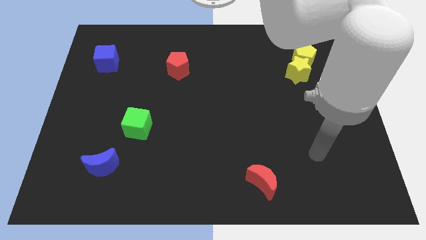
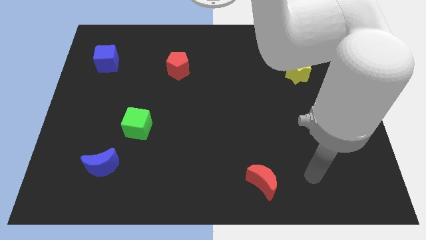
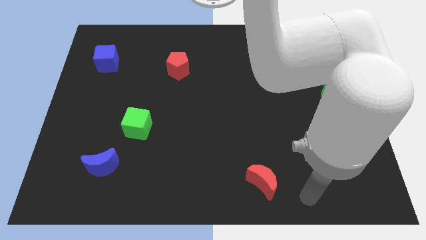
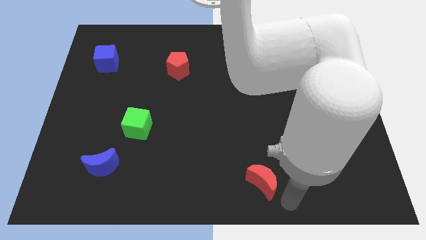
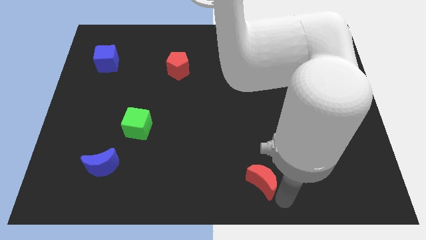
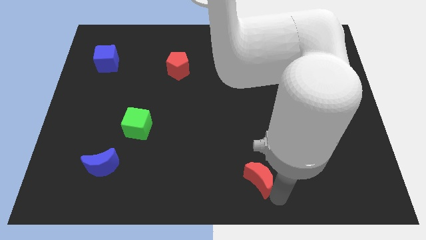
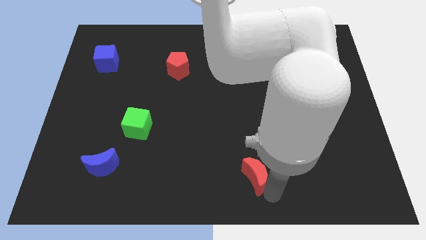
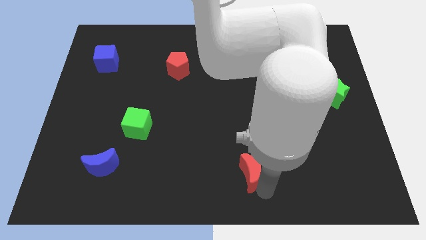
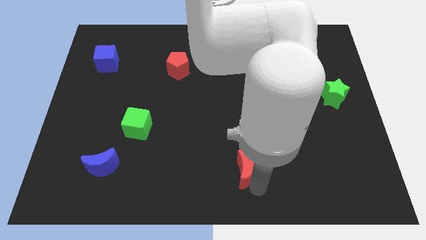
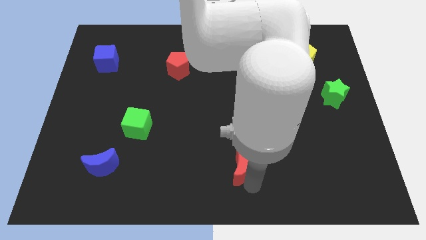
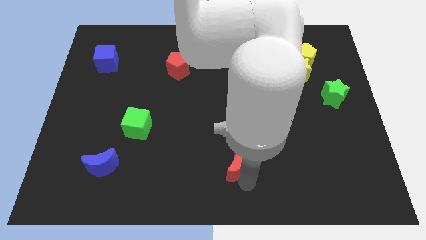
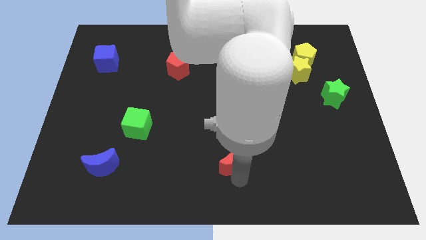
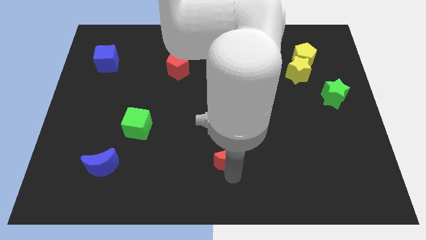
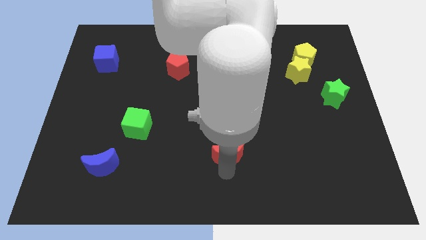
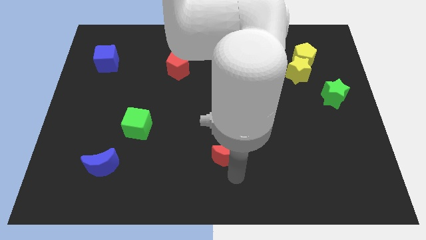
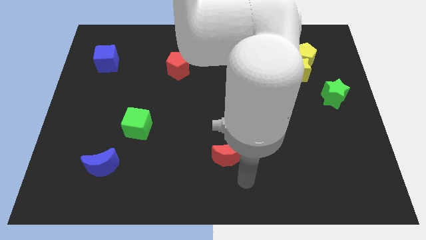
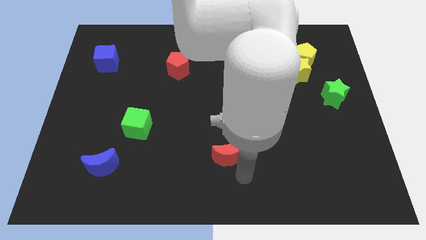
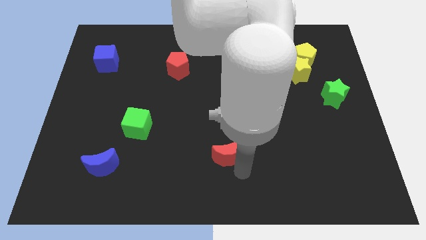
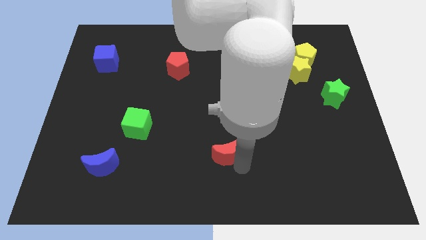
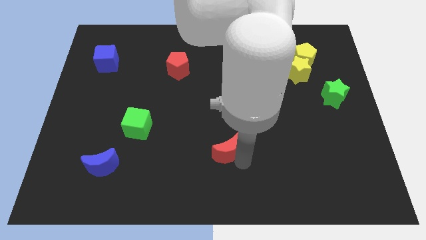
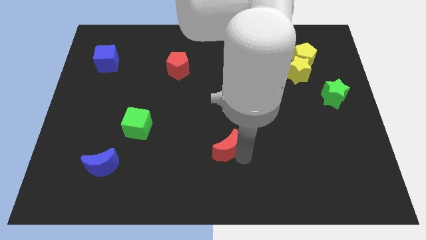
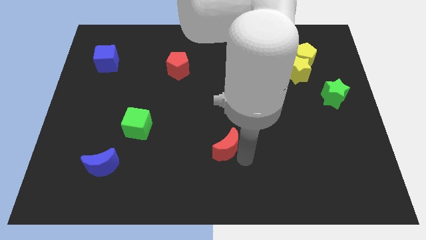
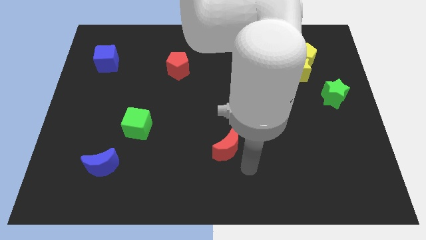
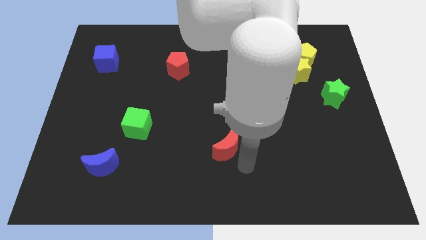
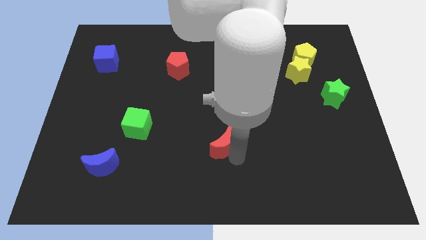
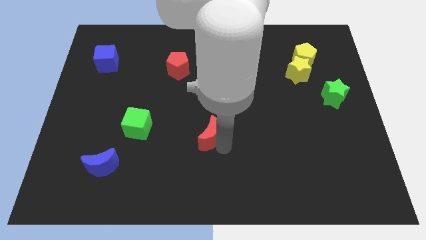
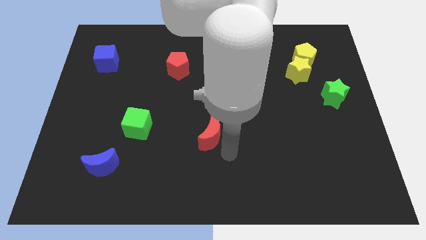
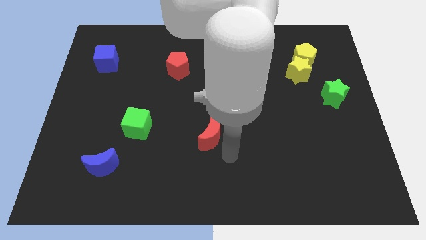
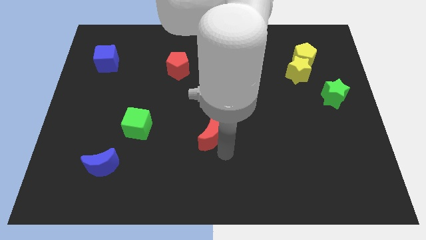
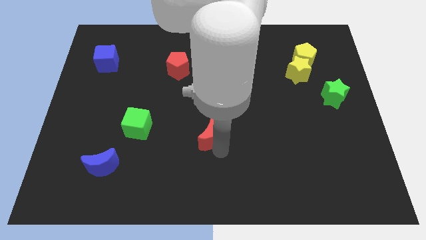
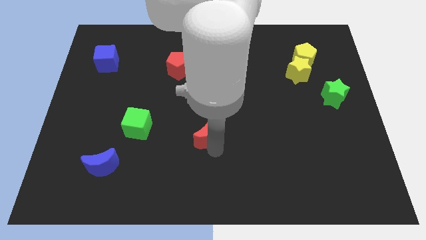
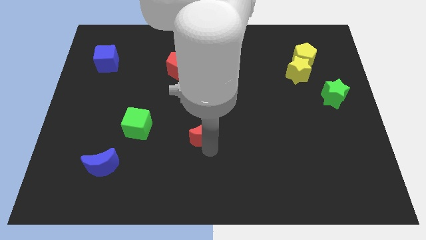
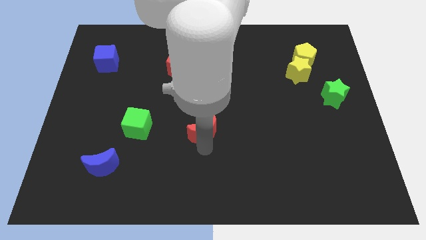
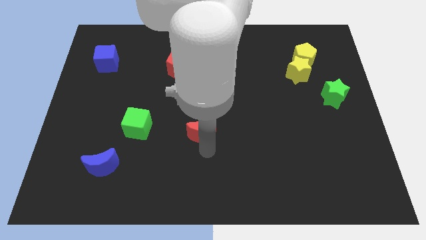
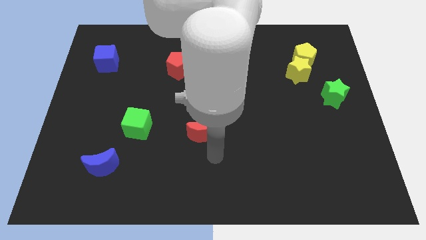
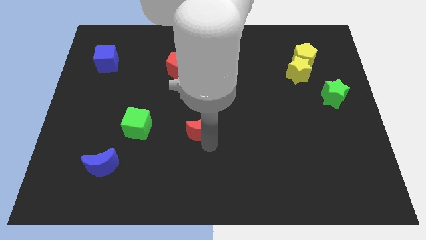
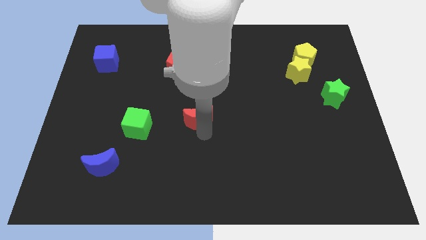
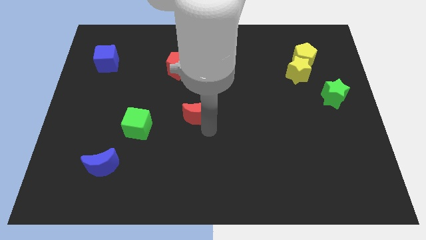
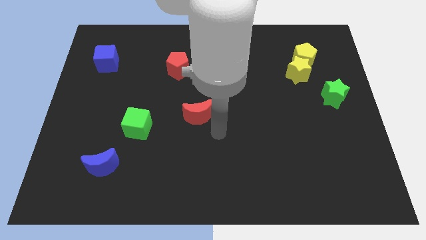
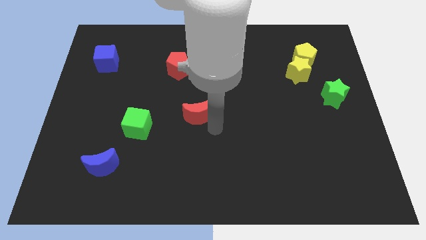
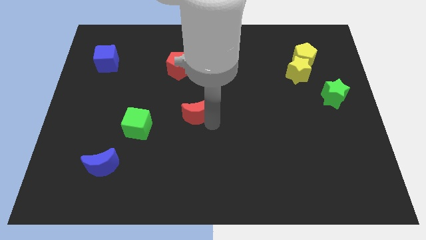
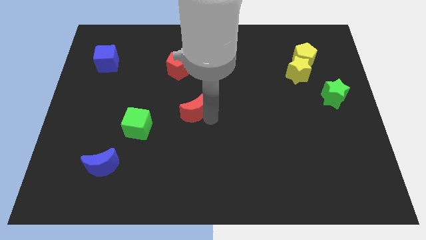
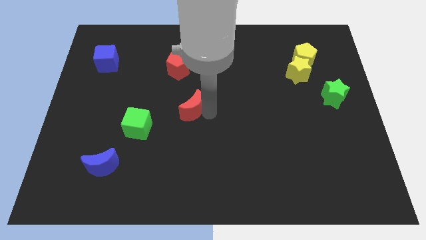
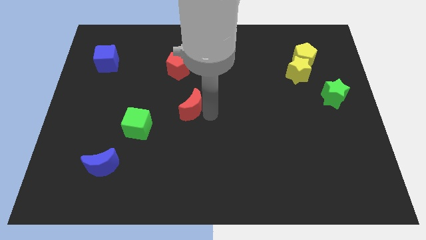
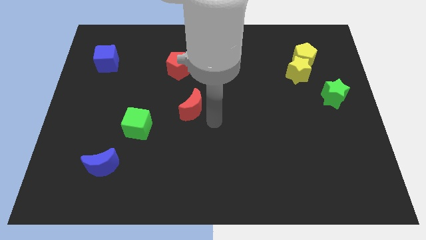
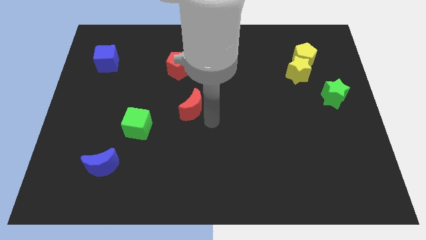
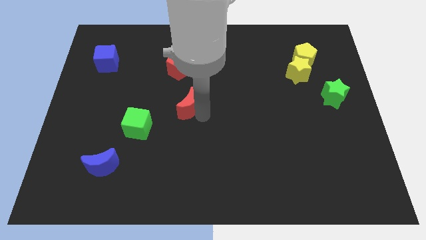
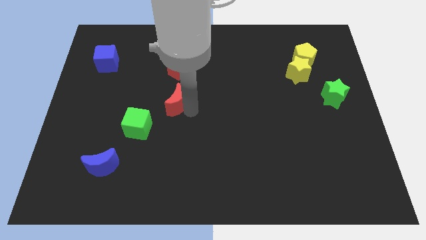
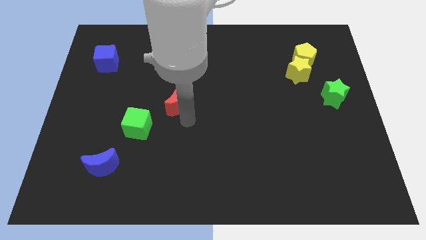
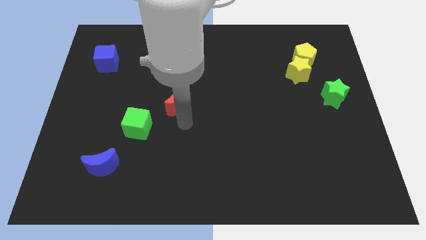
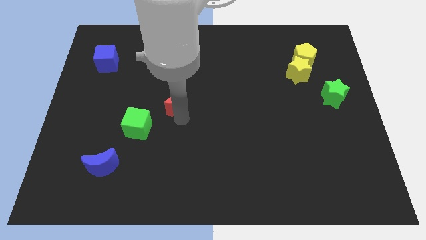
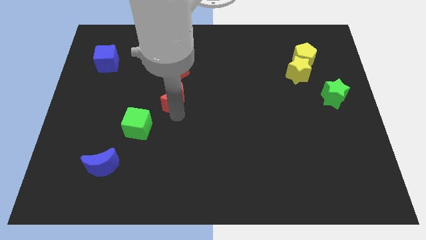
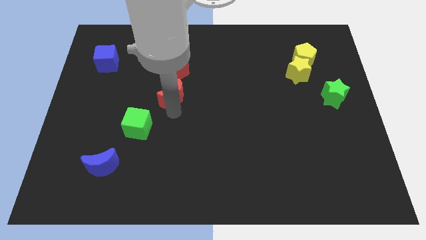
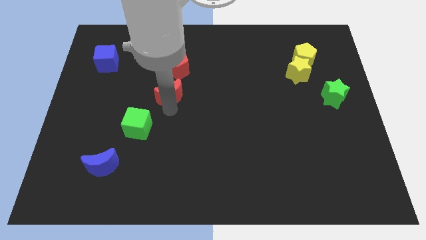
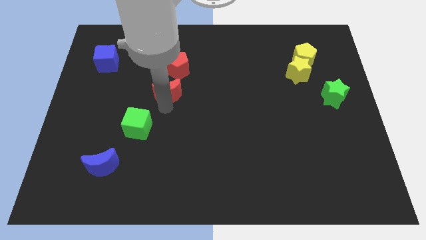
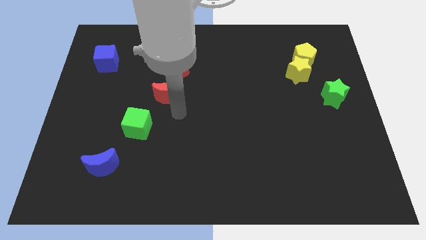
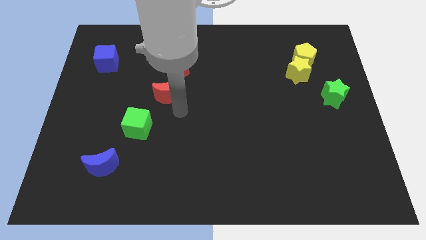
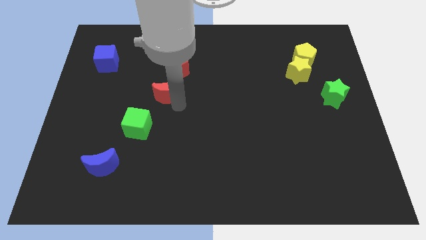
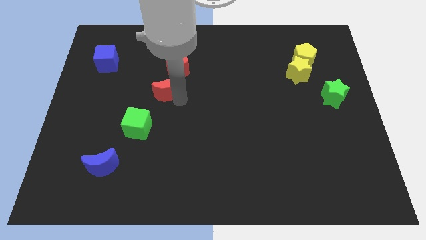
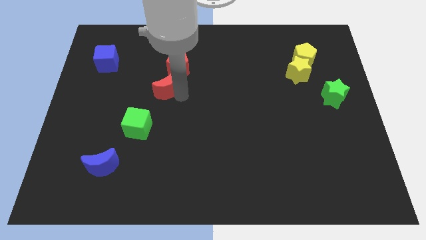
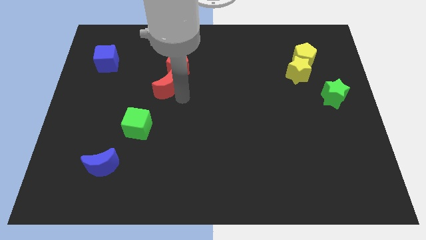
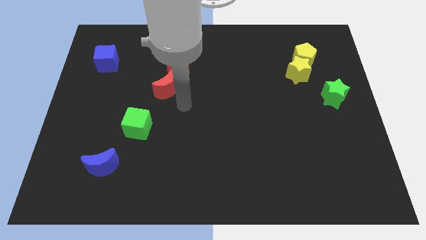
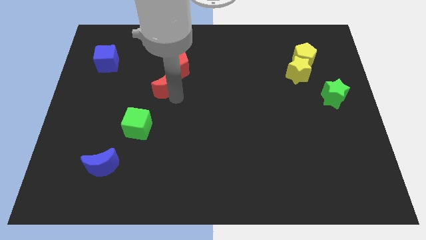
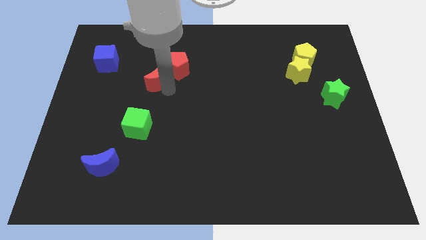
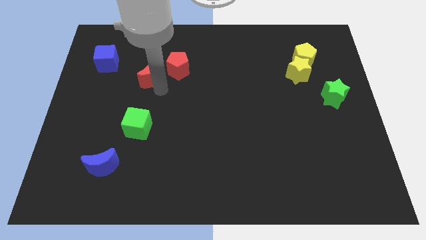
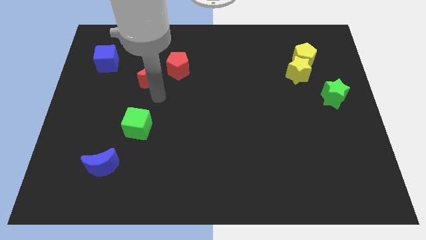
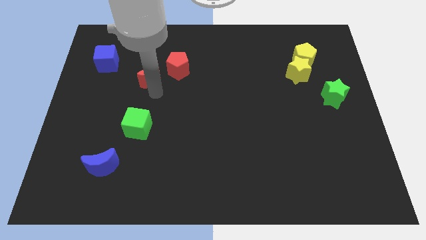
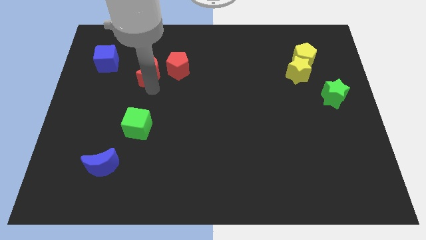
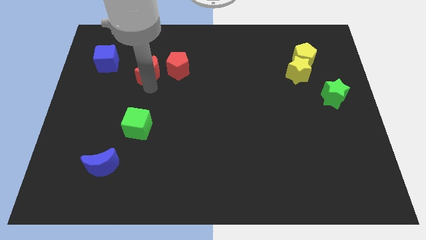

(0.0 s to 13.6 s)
put the red moon just right of the blue cube

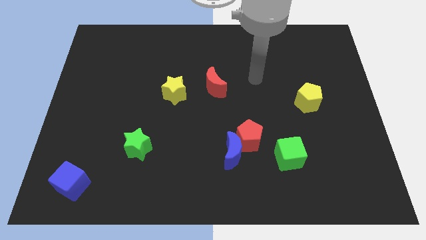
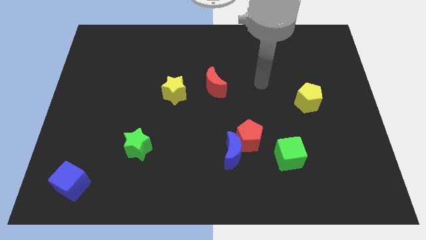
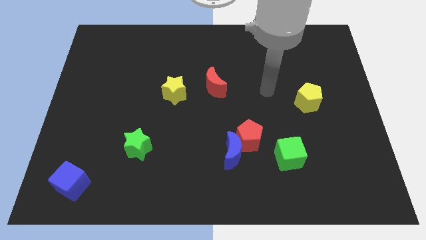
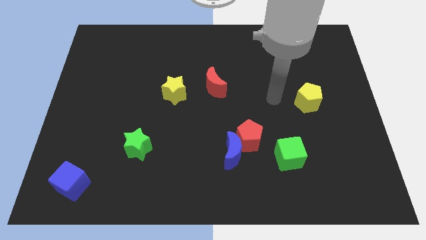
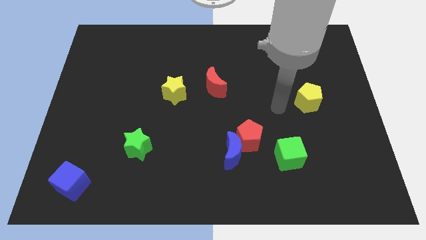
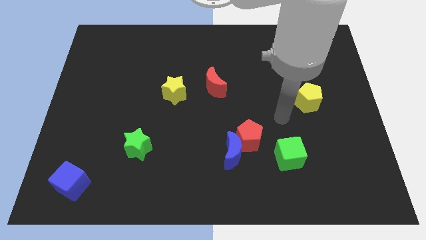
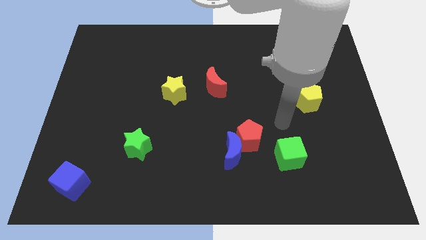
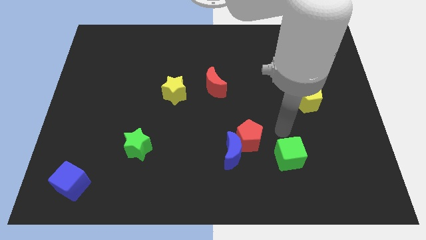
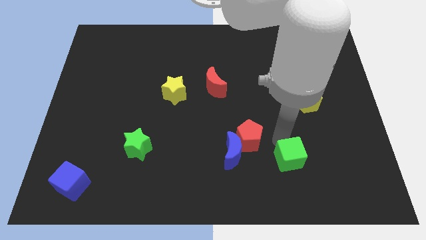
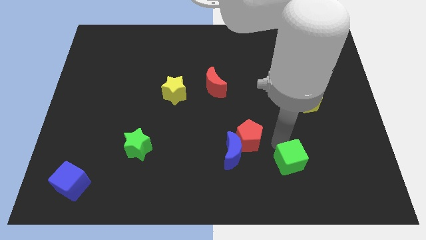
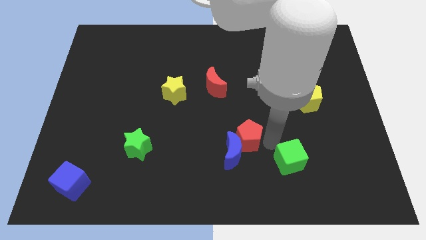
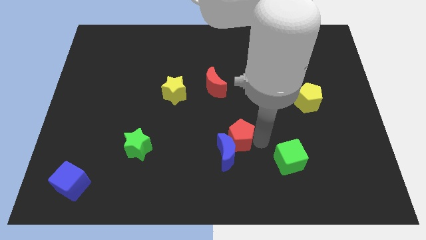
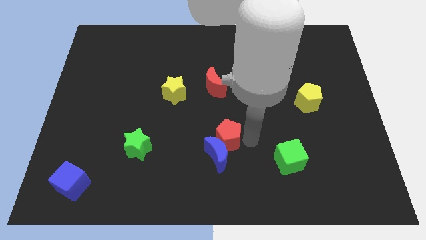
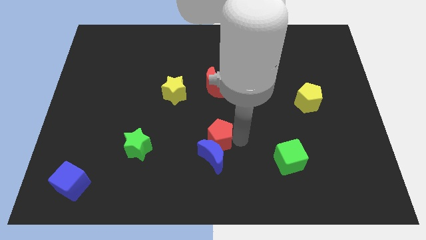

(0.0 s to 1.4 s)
slide the red pentagon diagonally up and to the left of the blue moon
